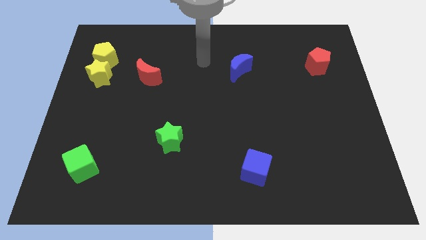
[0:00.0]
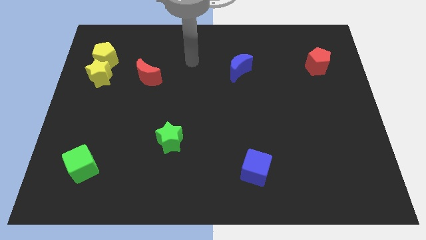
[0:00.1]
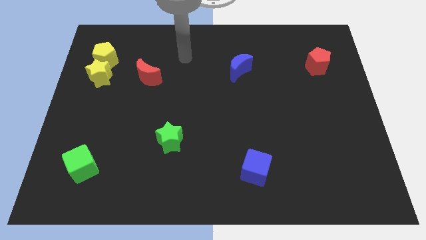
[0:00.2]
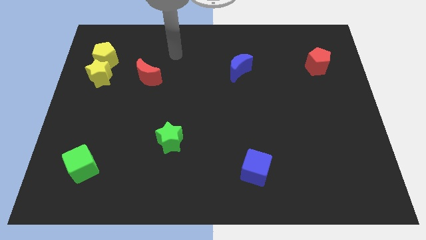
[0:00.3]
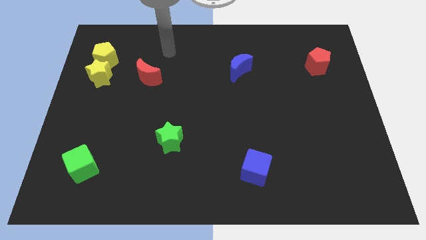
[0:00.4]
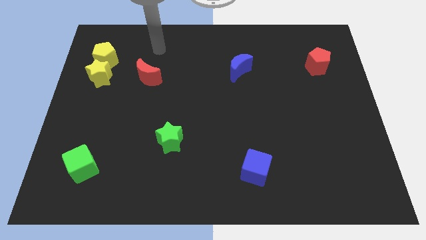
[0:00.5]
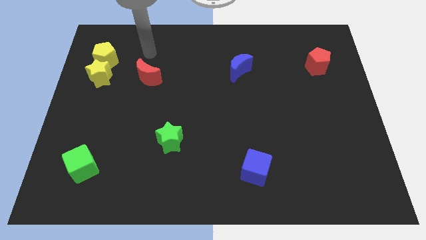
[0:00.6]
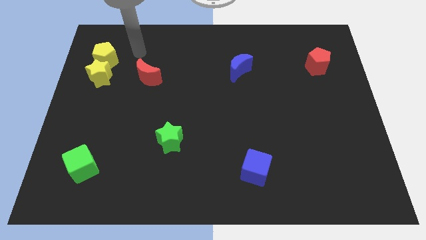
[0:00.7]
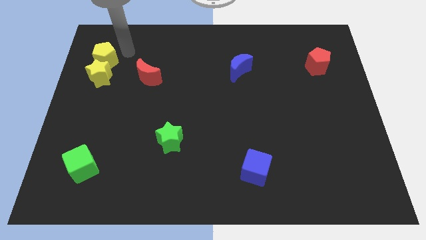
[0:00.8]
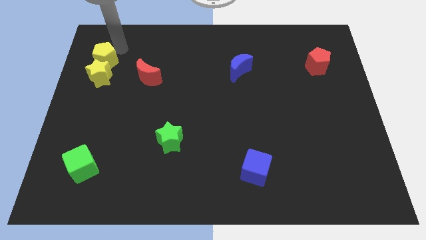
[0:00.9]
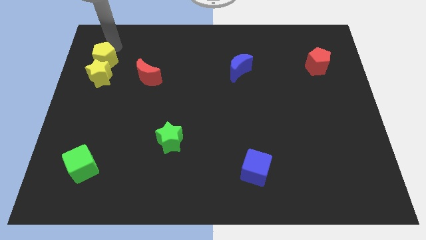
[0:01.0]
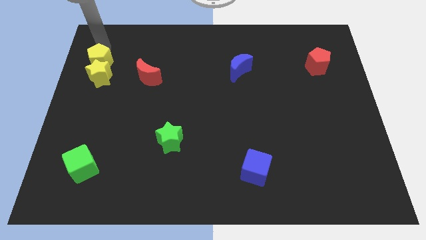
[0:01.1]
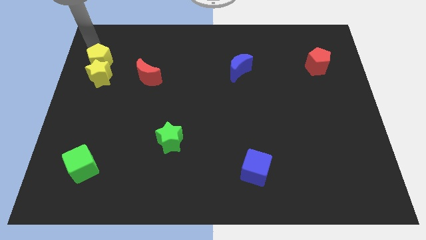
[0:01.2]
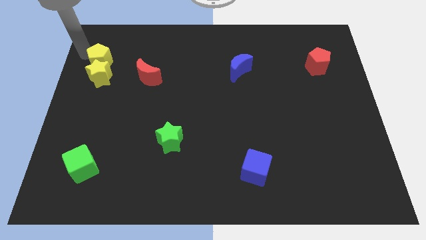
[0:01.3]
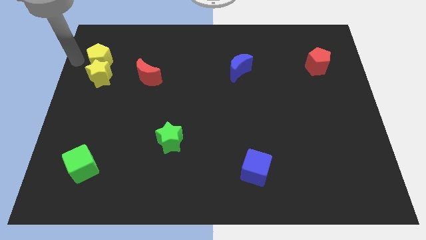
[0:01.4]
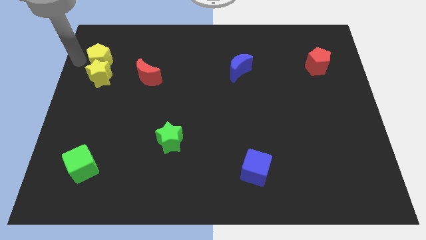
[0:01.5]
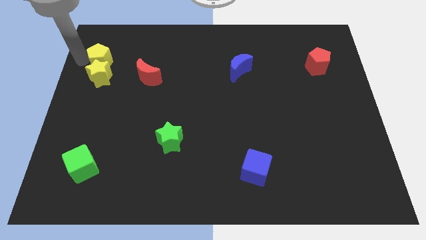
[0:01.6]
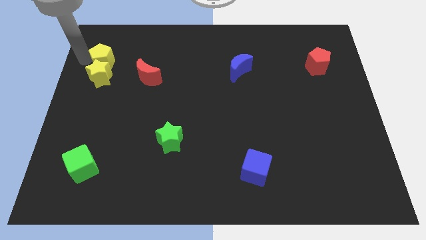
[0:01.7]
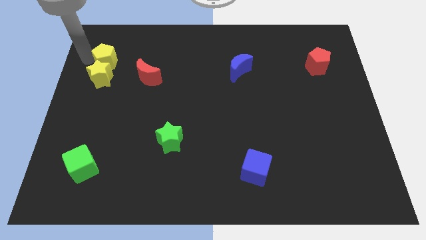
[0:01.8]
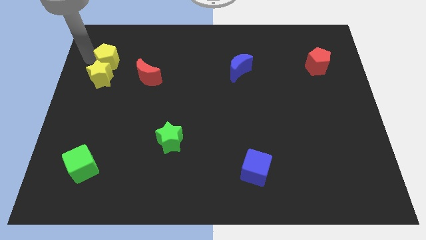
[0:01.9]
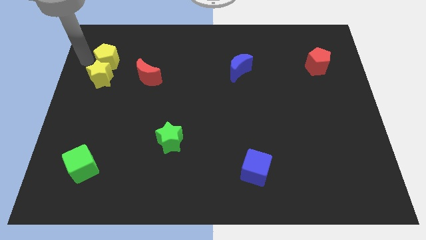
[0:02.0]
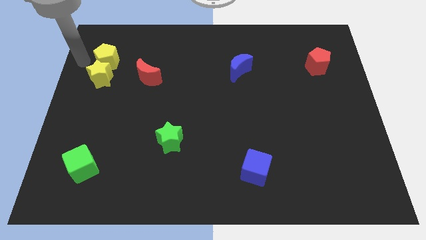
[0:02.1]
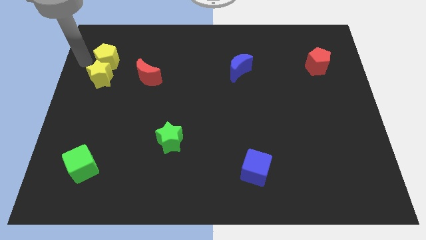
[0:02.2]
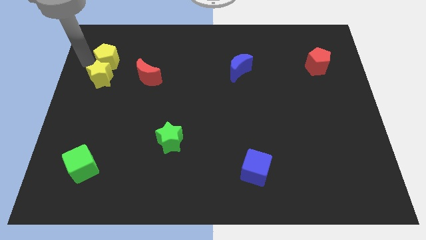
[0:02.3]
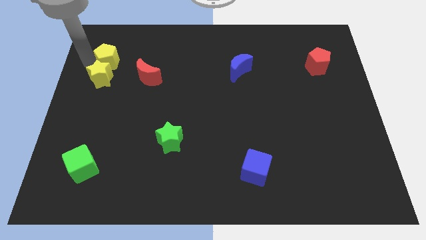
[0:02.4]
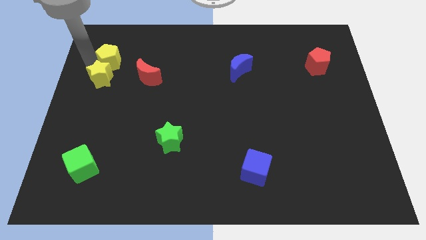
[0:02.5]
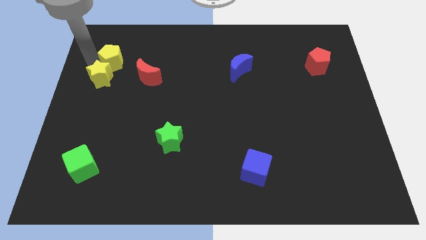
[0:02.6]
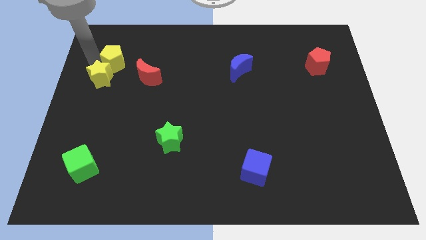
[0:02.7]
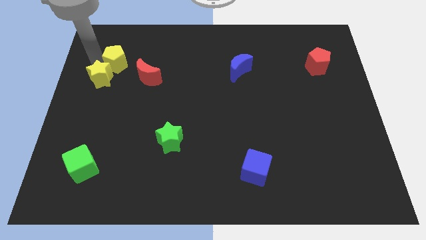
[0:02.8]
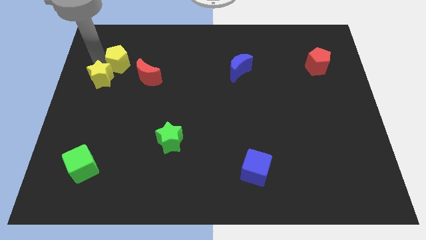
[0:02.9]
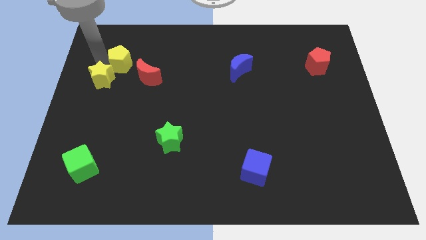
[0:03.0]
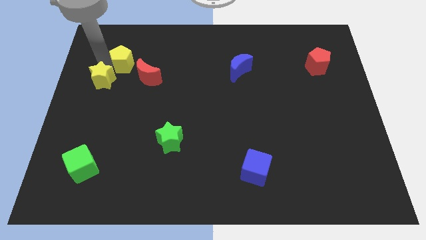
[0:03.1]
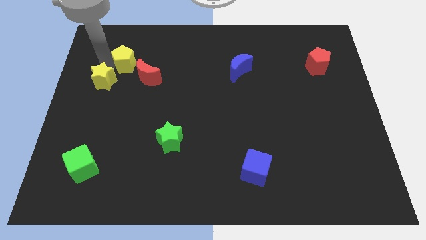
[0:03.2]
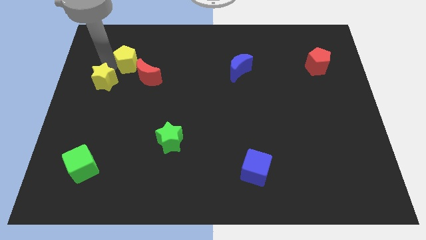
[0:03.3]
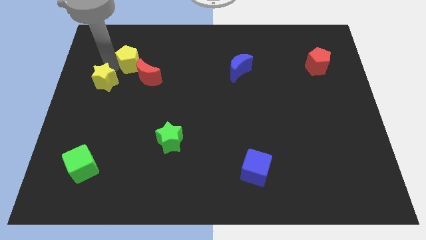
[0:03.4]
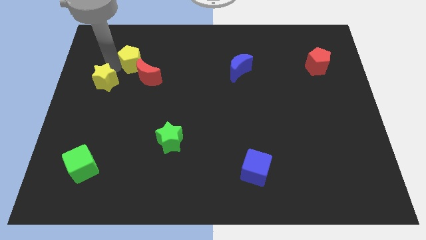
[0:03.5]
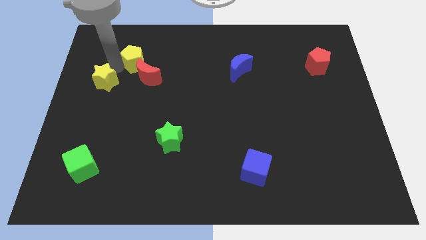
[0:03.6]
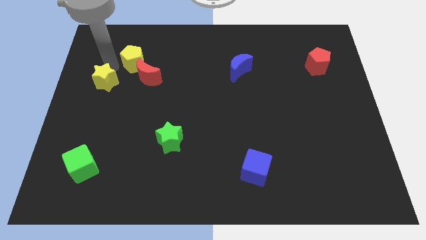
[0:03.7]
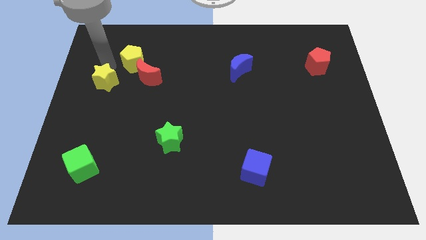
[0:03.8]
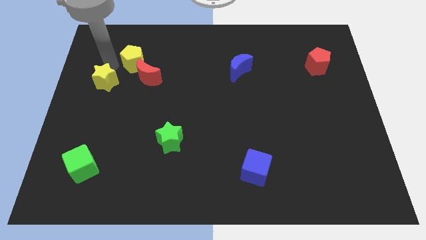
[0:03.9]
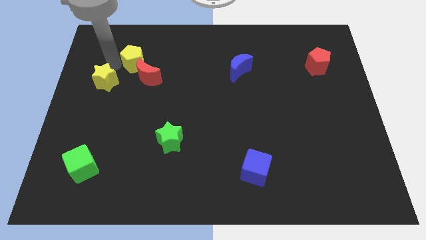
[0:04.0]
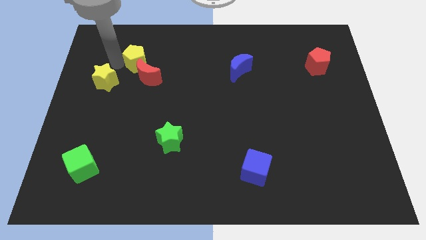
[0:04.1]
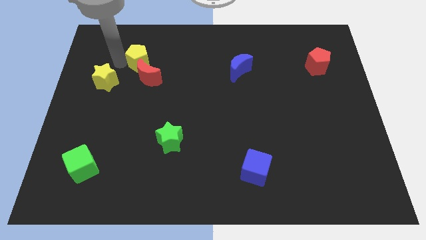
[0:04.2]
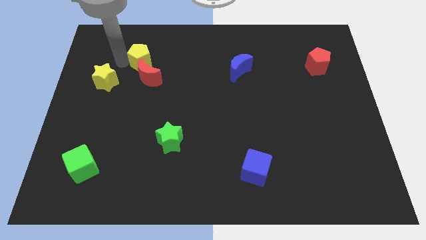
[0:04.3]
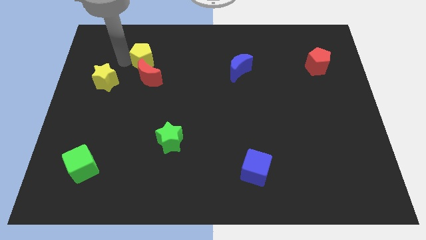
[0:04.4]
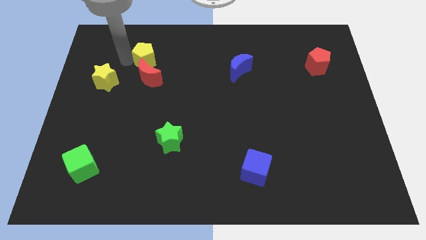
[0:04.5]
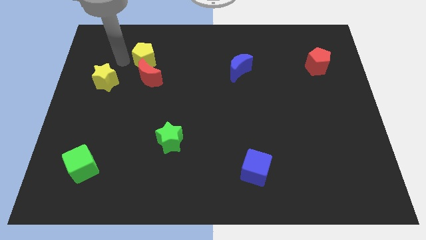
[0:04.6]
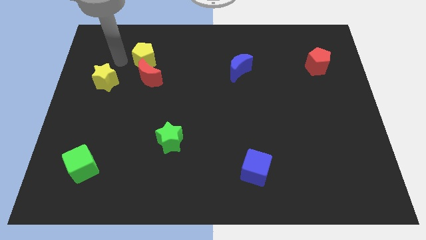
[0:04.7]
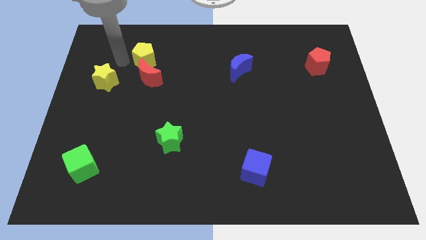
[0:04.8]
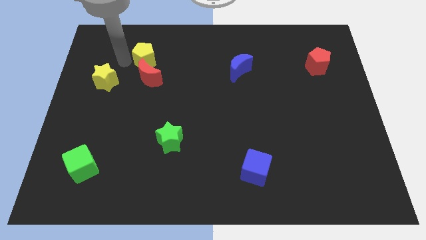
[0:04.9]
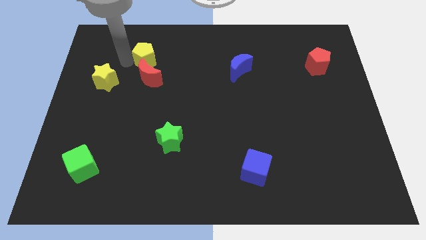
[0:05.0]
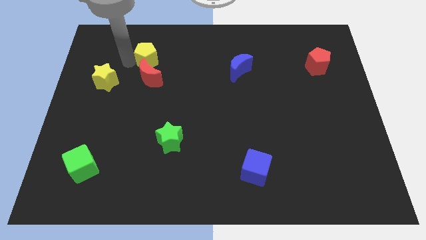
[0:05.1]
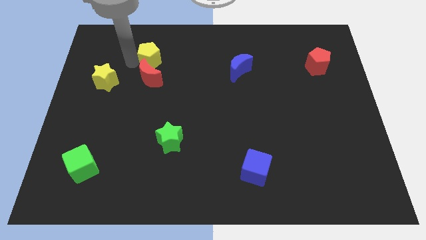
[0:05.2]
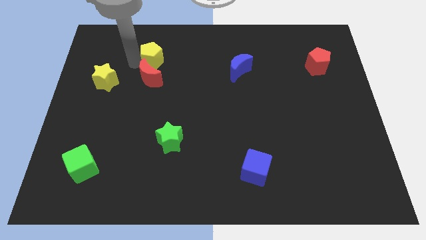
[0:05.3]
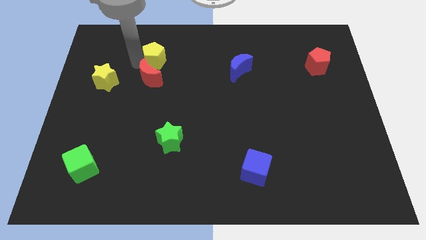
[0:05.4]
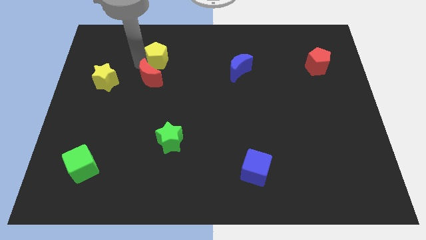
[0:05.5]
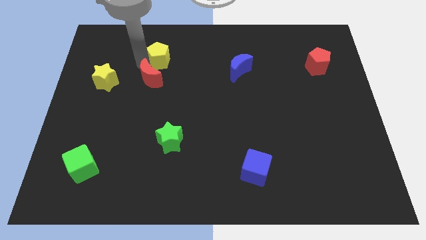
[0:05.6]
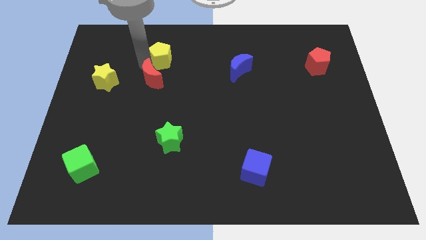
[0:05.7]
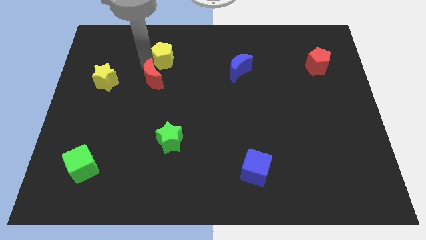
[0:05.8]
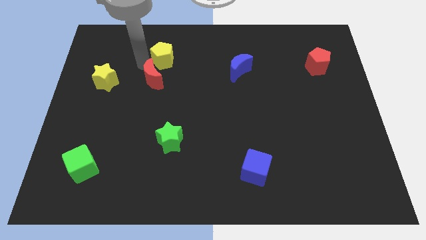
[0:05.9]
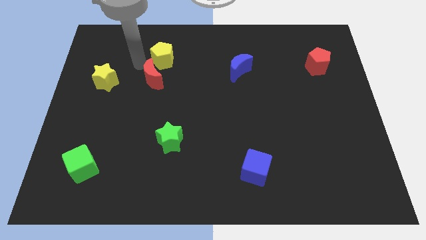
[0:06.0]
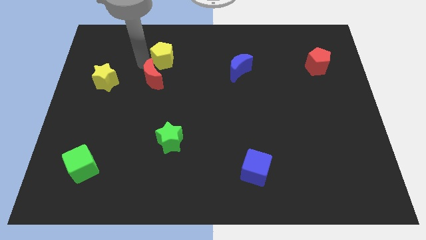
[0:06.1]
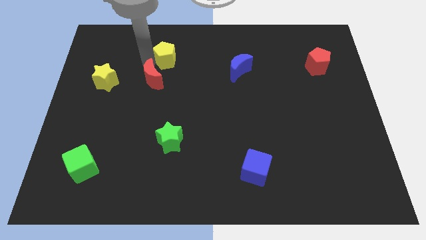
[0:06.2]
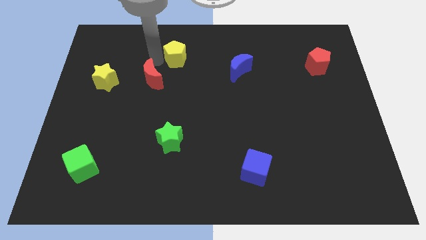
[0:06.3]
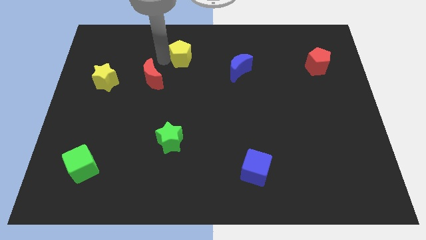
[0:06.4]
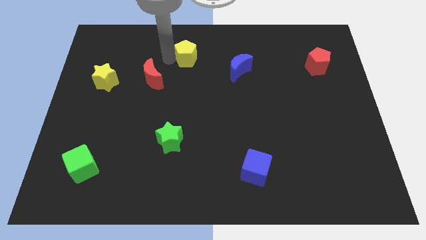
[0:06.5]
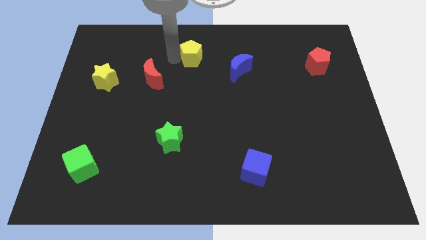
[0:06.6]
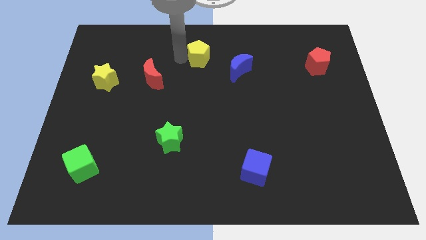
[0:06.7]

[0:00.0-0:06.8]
move the yellow pentagon diagonally up and to the left of the blue moon

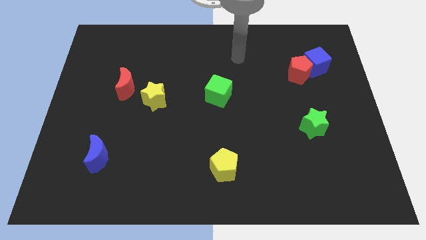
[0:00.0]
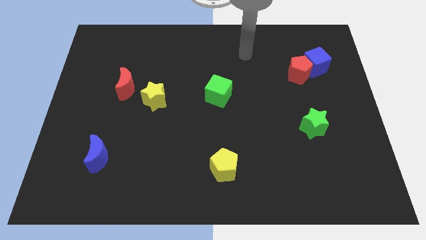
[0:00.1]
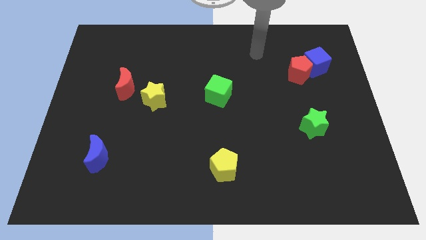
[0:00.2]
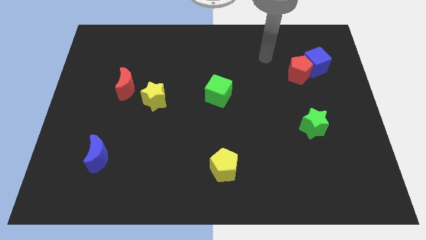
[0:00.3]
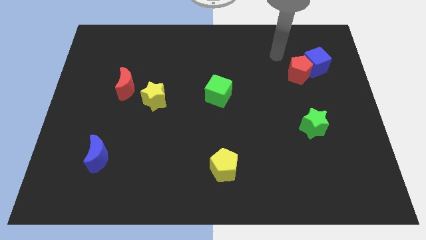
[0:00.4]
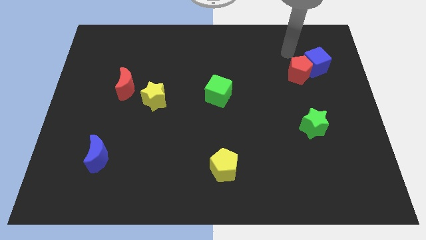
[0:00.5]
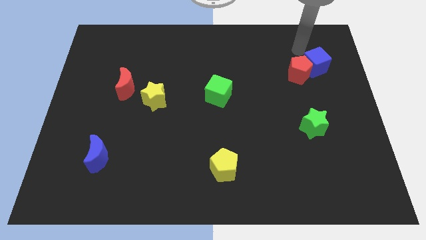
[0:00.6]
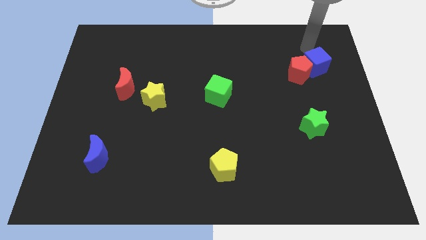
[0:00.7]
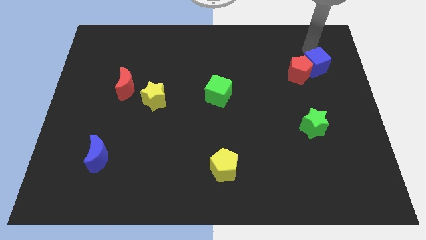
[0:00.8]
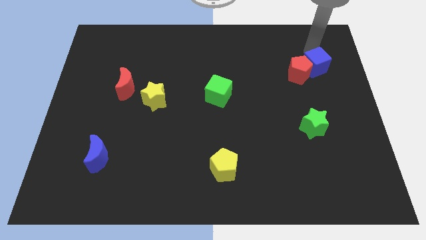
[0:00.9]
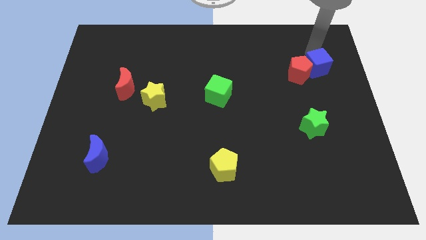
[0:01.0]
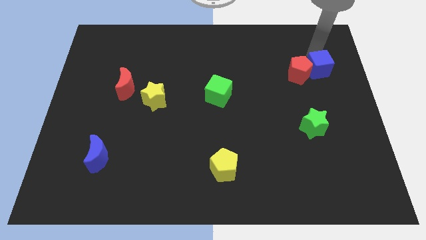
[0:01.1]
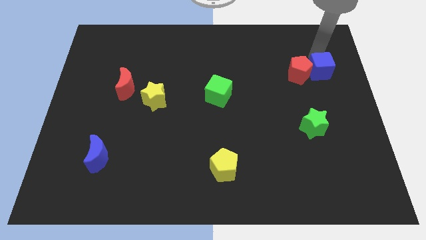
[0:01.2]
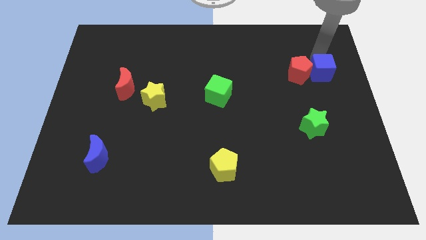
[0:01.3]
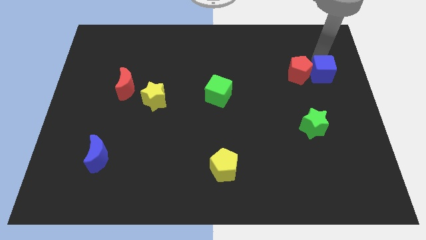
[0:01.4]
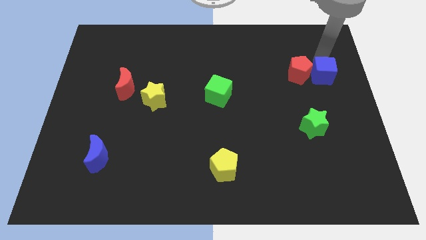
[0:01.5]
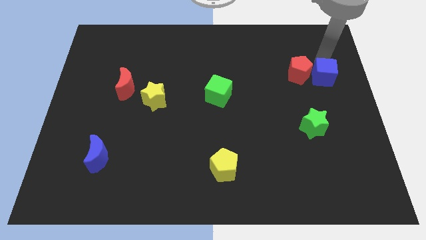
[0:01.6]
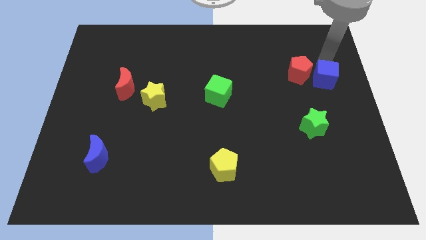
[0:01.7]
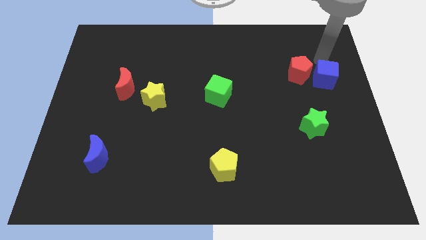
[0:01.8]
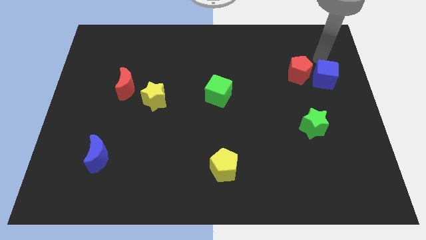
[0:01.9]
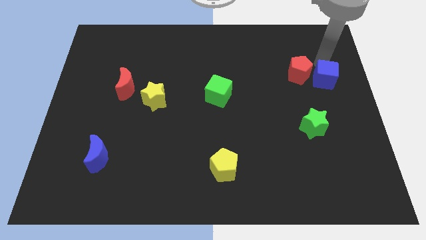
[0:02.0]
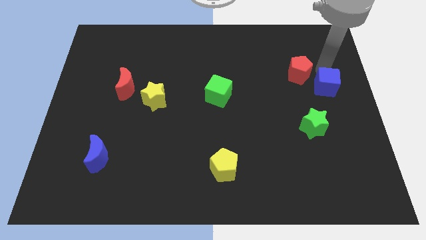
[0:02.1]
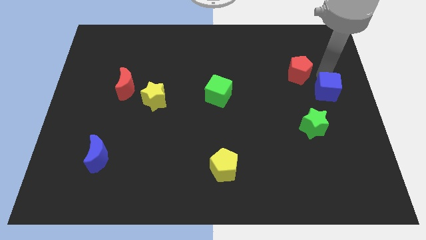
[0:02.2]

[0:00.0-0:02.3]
move the blue cube diagonally up and to the right of the green star
